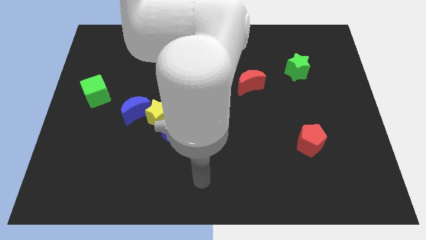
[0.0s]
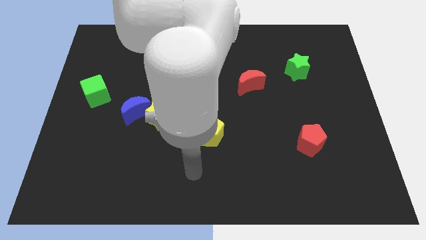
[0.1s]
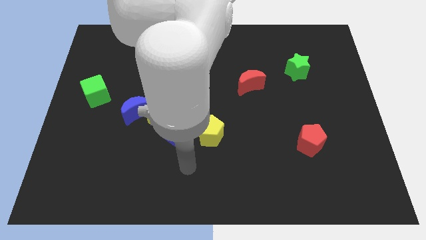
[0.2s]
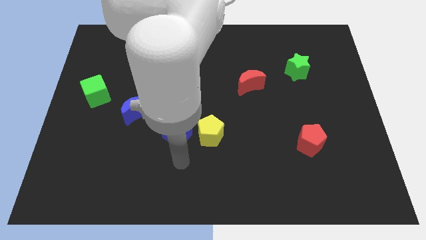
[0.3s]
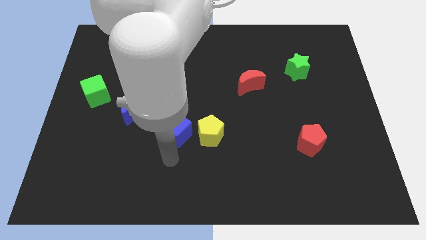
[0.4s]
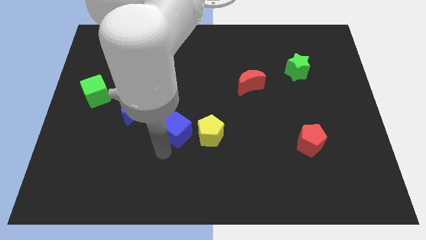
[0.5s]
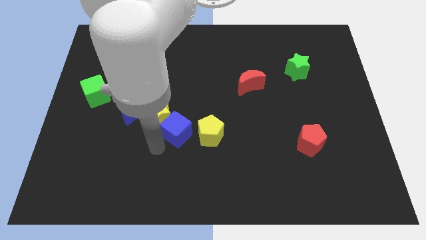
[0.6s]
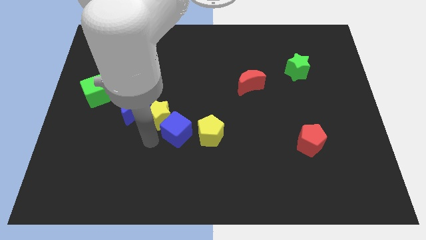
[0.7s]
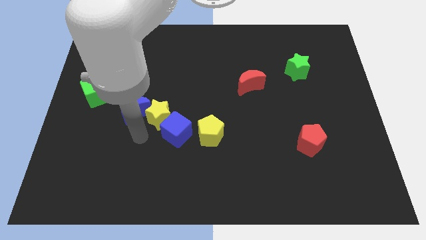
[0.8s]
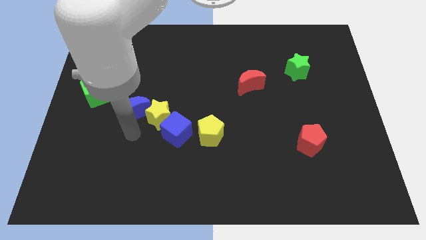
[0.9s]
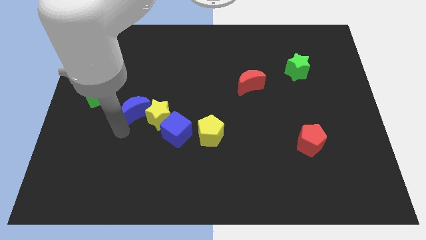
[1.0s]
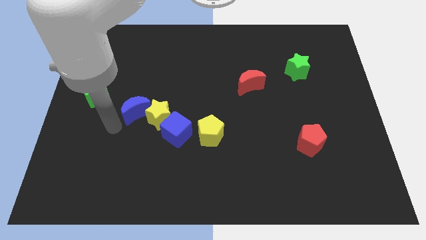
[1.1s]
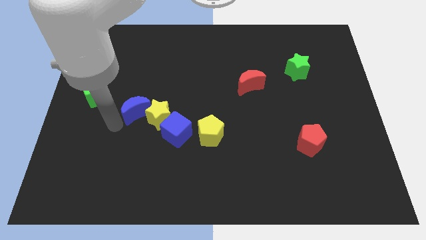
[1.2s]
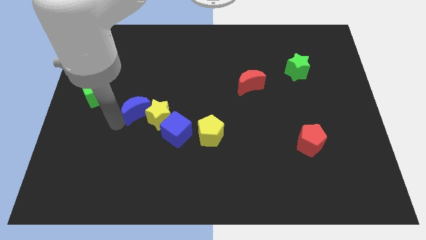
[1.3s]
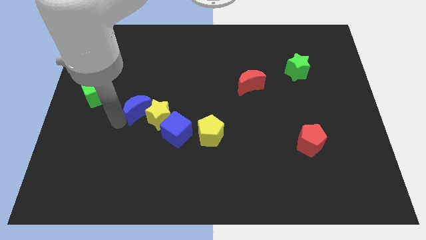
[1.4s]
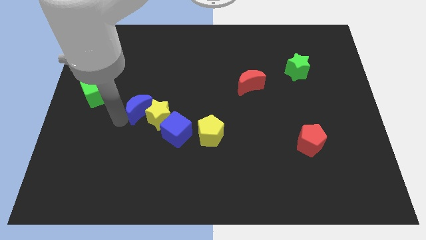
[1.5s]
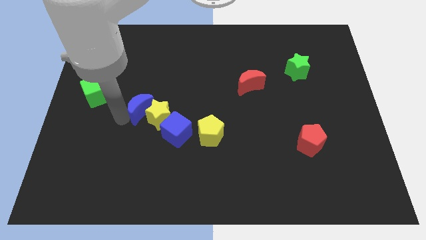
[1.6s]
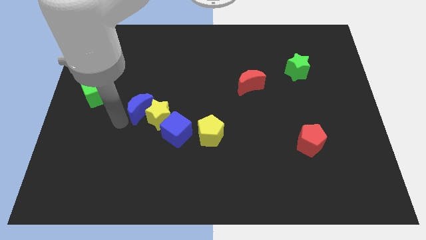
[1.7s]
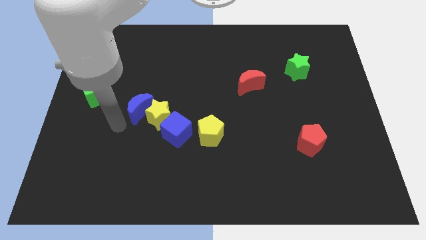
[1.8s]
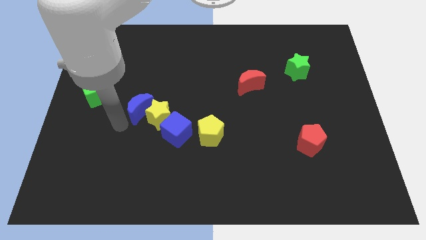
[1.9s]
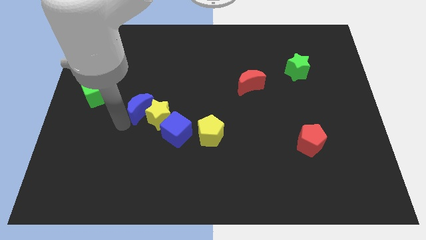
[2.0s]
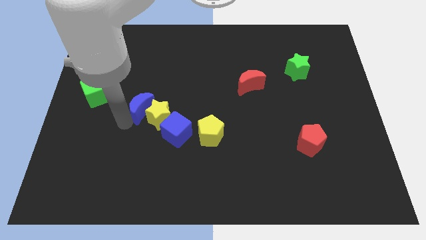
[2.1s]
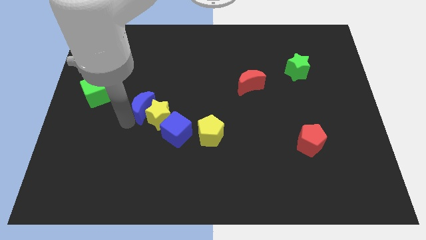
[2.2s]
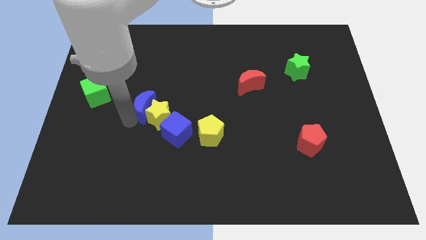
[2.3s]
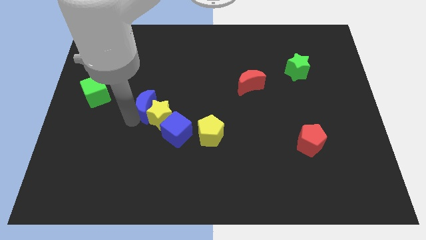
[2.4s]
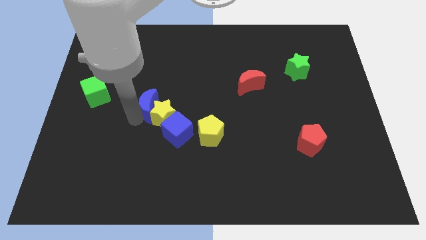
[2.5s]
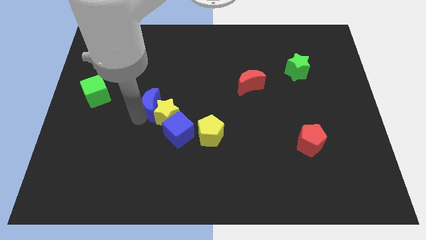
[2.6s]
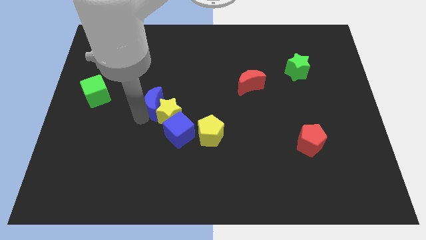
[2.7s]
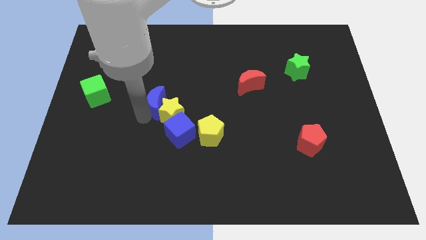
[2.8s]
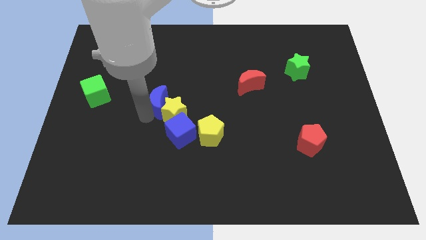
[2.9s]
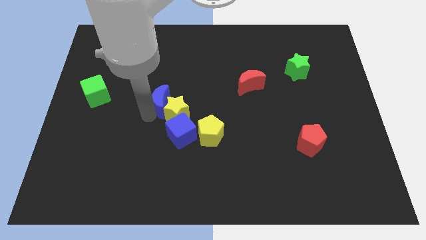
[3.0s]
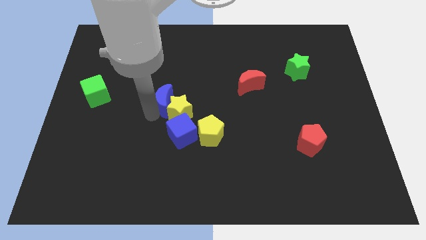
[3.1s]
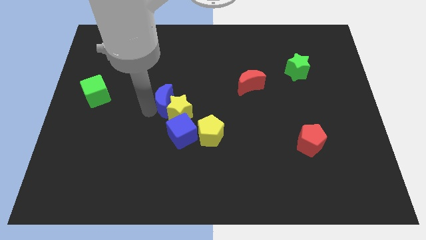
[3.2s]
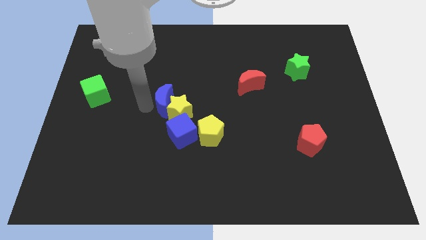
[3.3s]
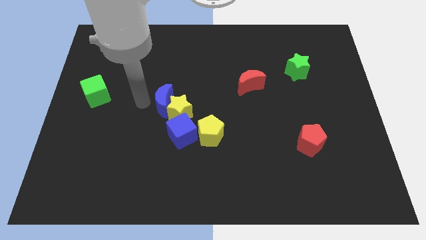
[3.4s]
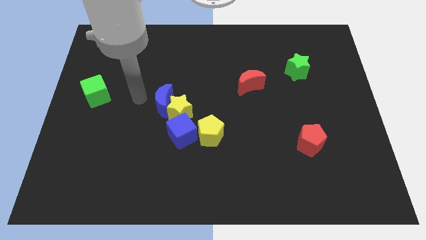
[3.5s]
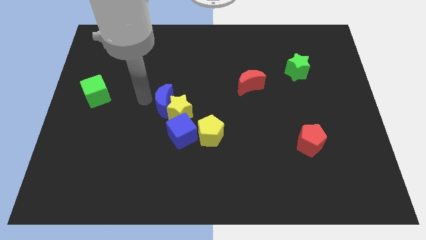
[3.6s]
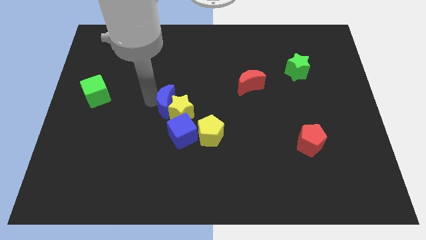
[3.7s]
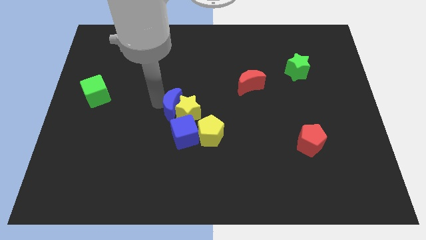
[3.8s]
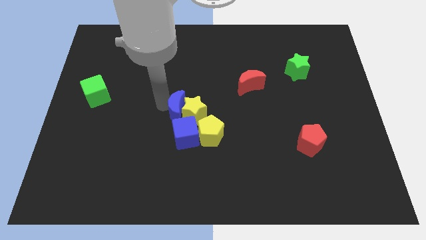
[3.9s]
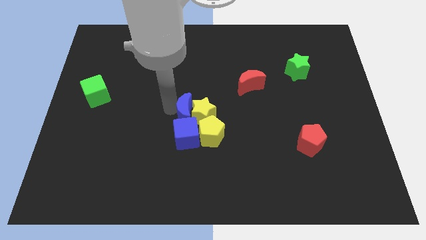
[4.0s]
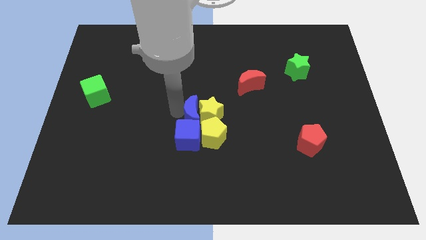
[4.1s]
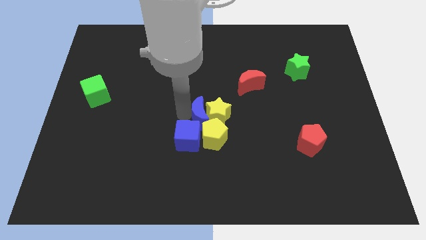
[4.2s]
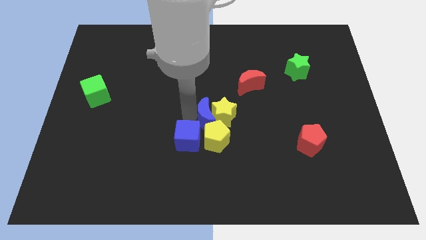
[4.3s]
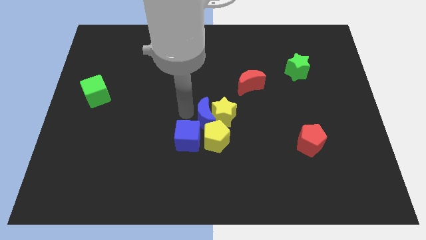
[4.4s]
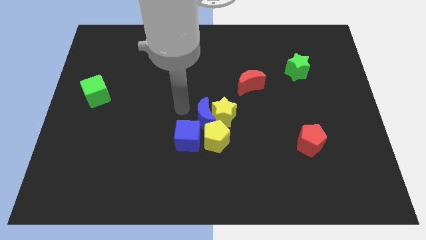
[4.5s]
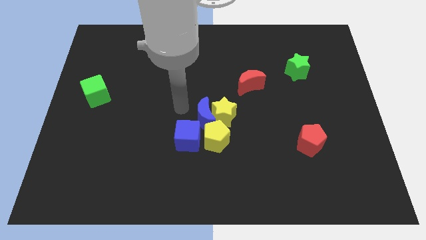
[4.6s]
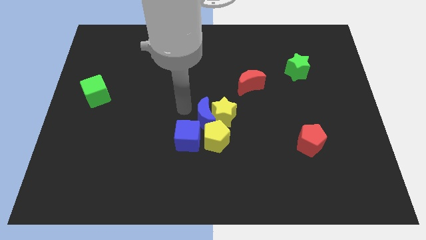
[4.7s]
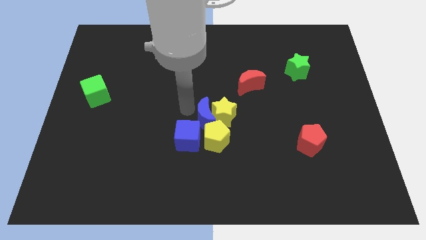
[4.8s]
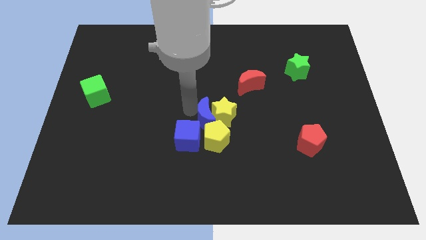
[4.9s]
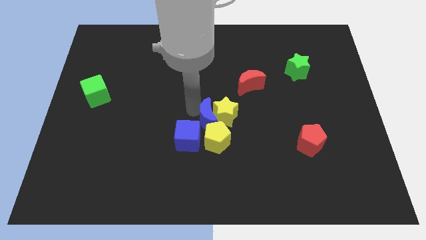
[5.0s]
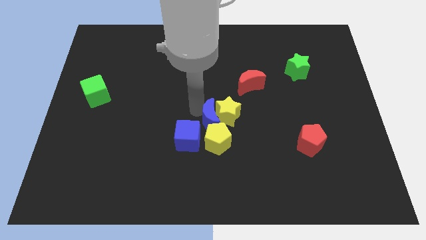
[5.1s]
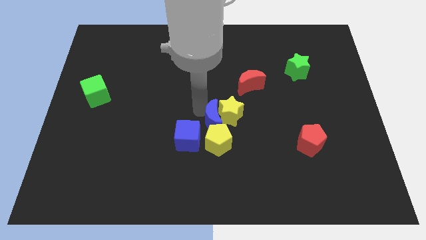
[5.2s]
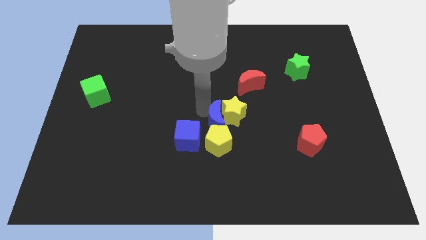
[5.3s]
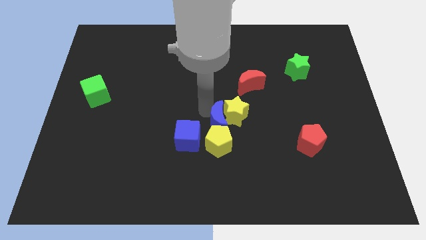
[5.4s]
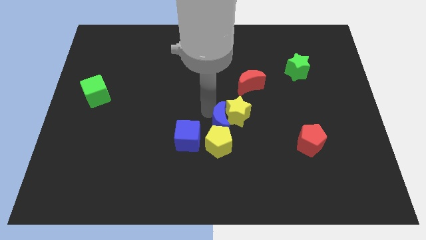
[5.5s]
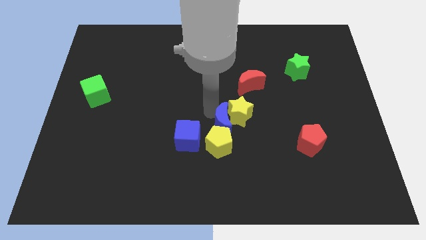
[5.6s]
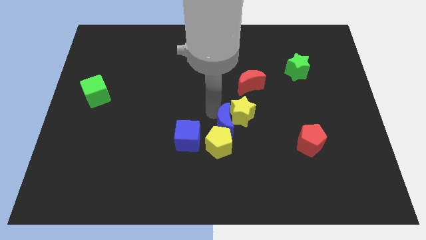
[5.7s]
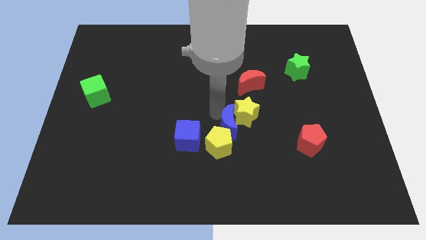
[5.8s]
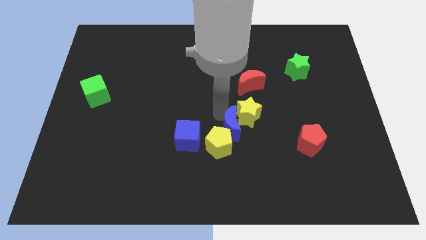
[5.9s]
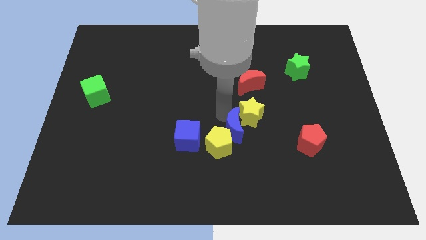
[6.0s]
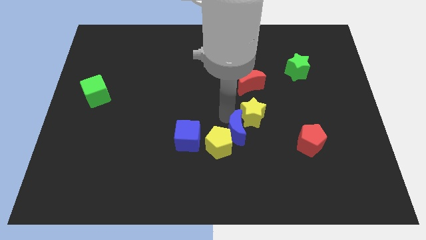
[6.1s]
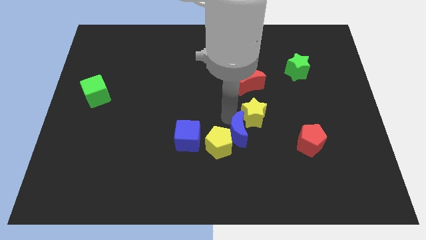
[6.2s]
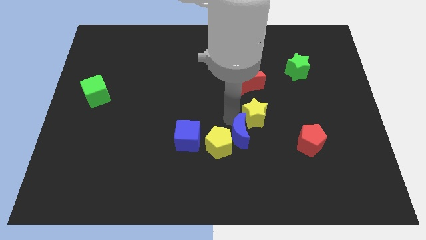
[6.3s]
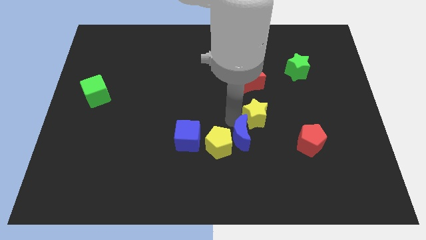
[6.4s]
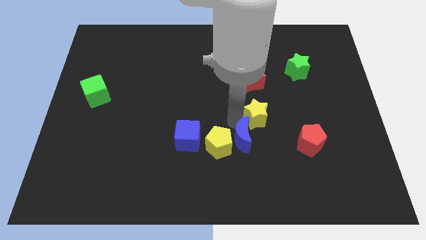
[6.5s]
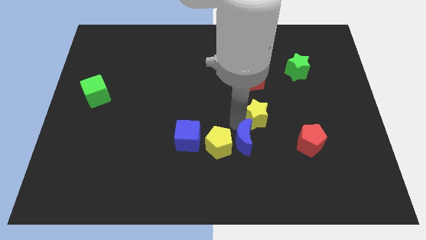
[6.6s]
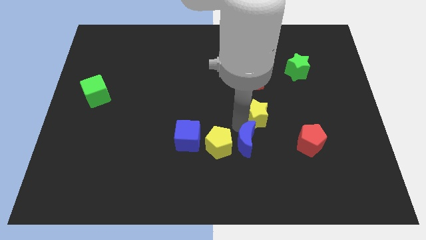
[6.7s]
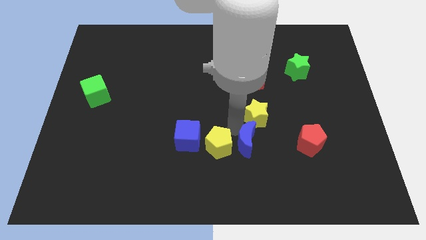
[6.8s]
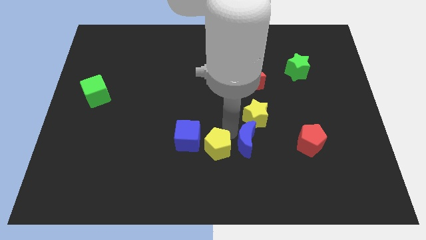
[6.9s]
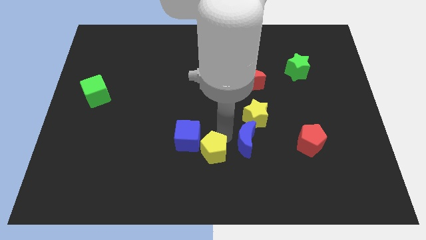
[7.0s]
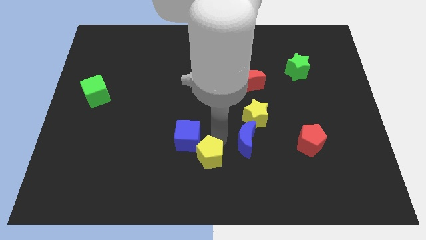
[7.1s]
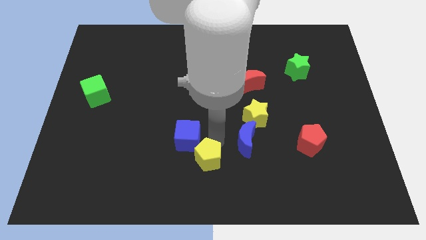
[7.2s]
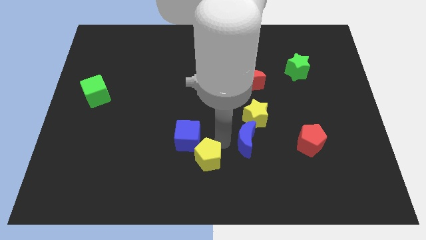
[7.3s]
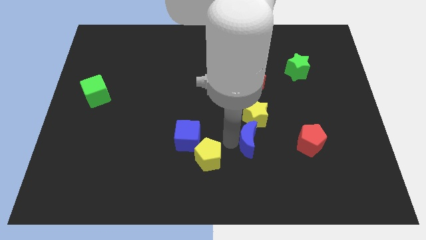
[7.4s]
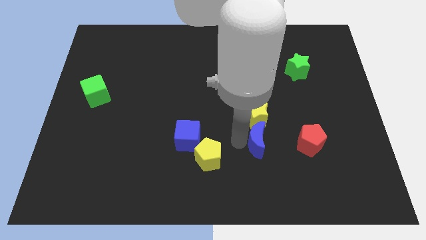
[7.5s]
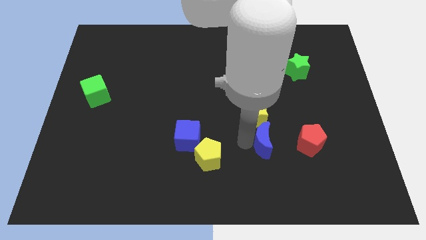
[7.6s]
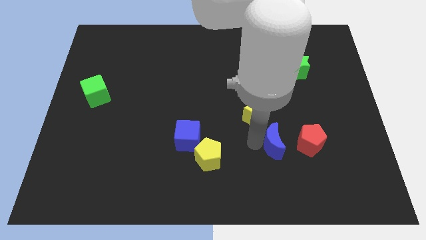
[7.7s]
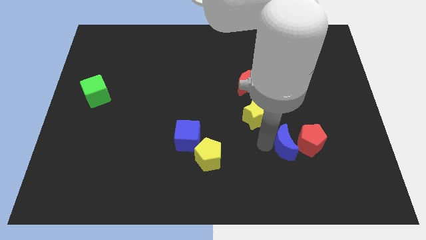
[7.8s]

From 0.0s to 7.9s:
move the blue moon next to the red pentagon
